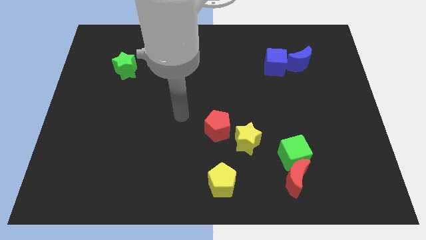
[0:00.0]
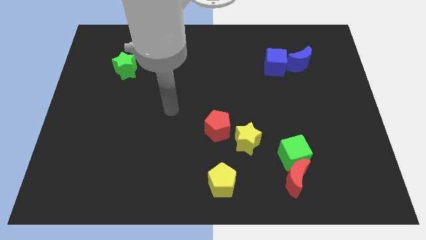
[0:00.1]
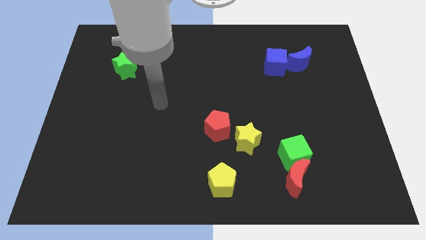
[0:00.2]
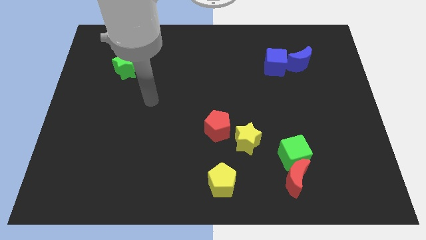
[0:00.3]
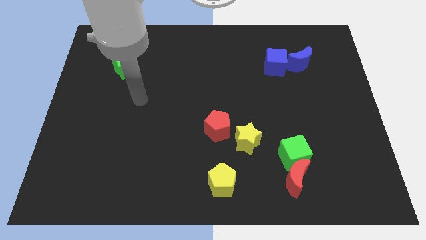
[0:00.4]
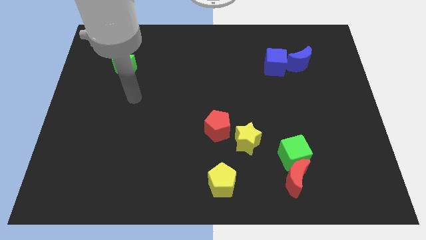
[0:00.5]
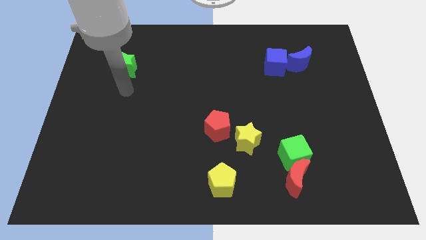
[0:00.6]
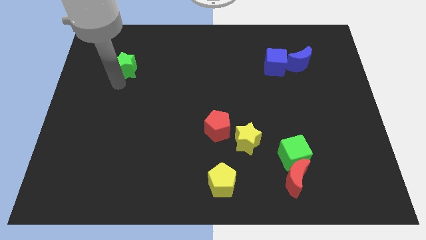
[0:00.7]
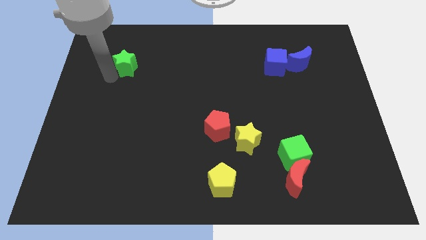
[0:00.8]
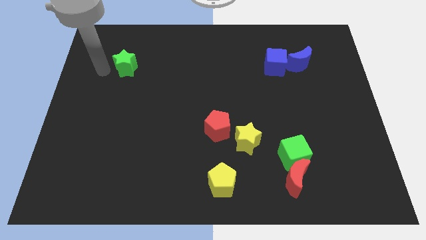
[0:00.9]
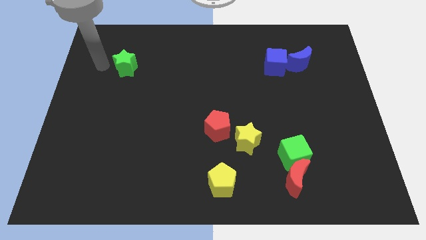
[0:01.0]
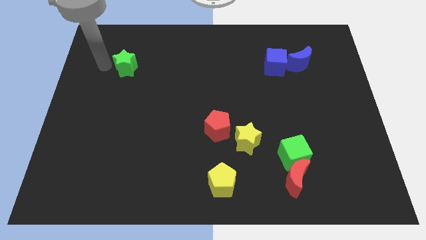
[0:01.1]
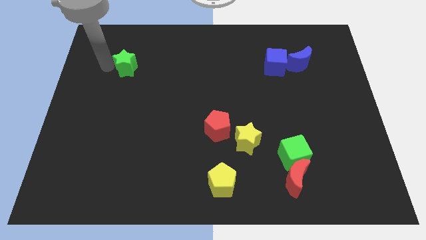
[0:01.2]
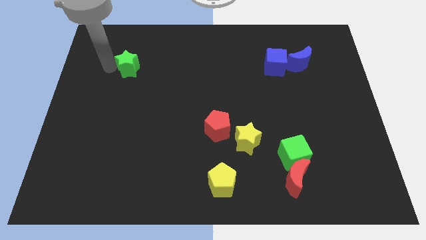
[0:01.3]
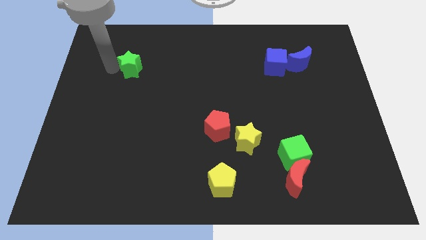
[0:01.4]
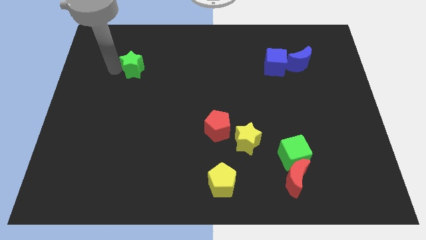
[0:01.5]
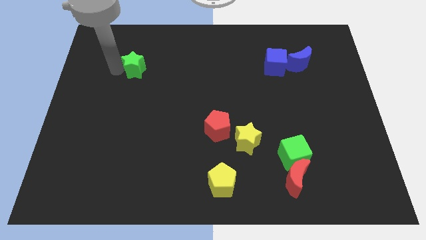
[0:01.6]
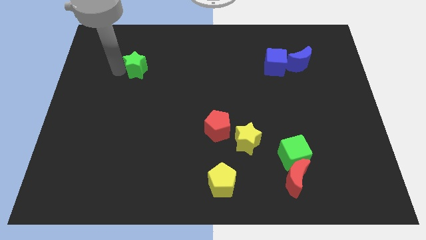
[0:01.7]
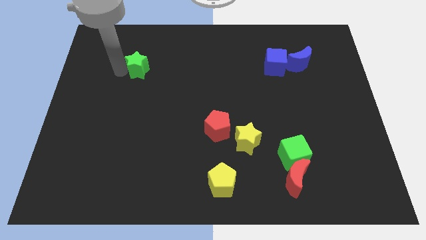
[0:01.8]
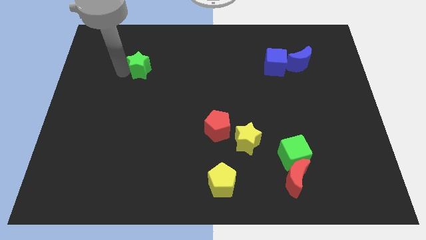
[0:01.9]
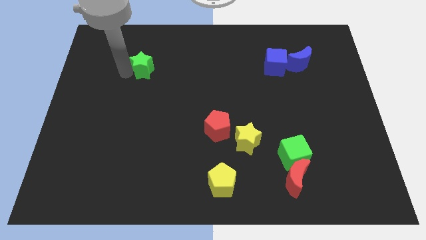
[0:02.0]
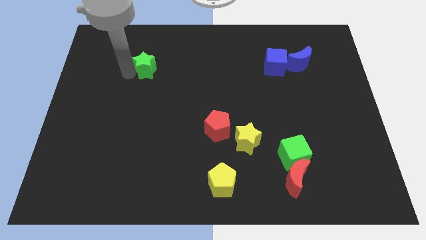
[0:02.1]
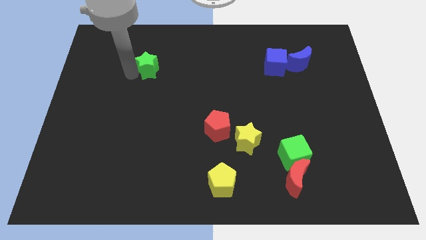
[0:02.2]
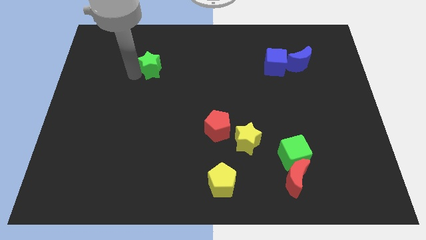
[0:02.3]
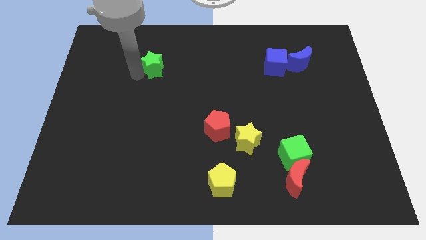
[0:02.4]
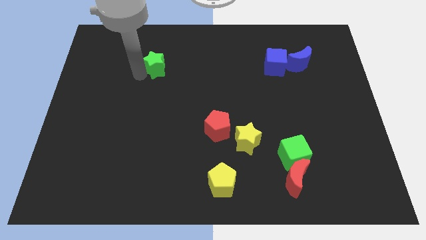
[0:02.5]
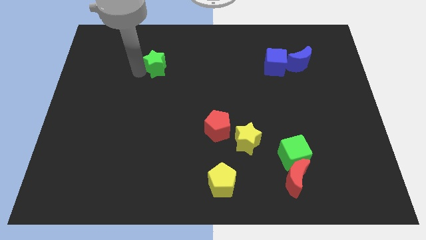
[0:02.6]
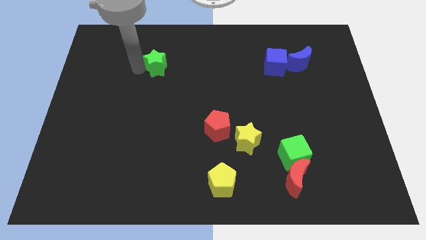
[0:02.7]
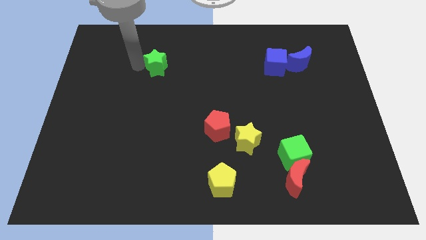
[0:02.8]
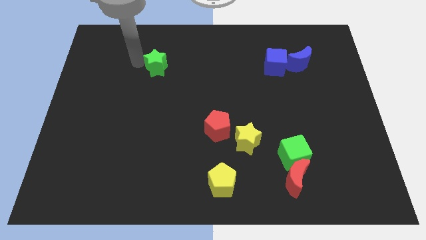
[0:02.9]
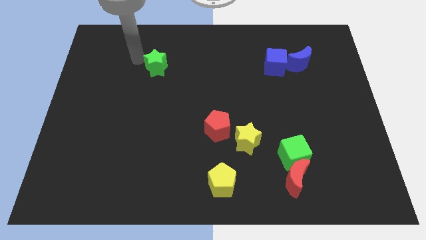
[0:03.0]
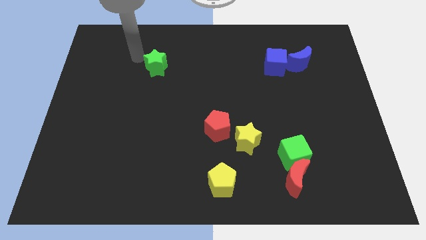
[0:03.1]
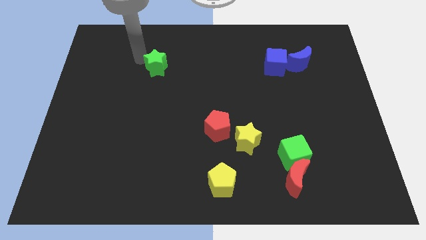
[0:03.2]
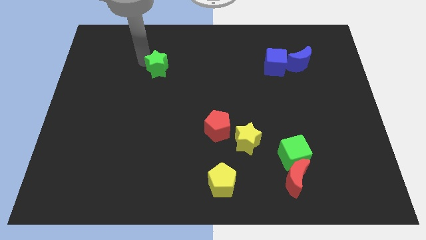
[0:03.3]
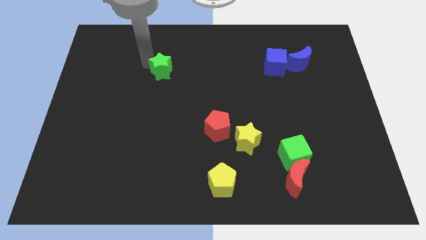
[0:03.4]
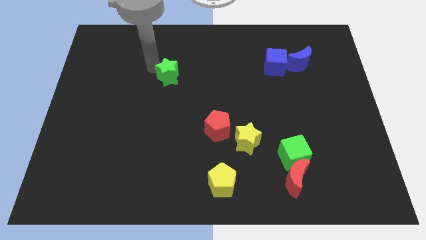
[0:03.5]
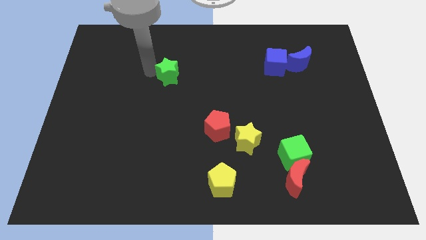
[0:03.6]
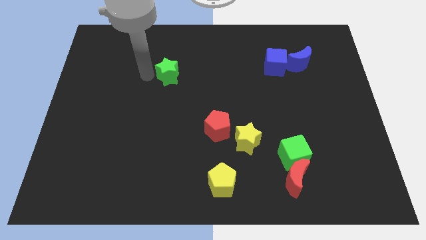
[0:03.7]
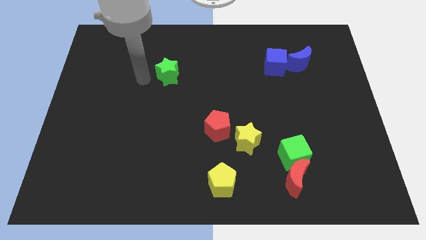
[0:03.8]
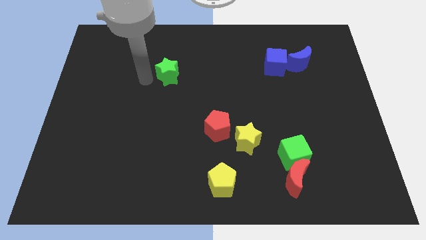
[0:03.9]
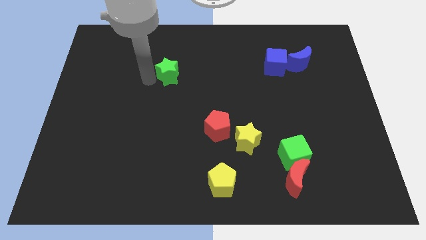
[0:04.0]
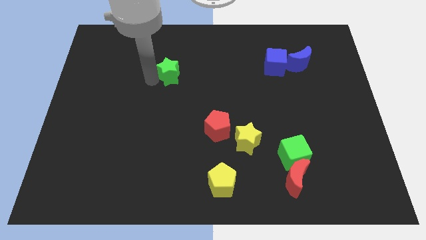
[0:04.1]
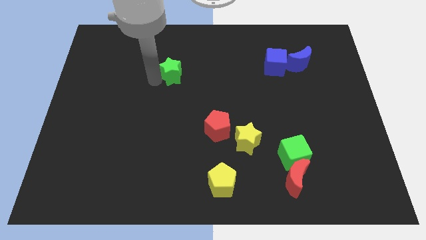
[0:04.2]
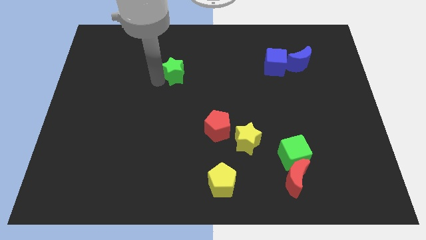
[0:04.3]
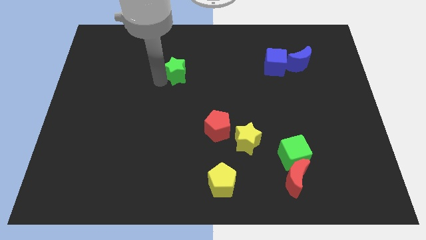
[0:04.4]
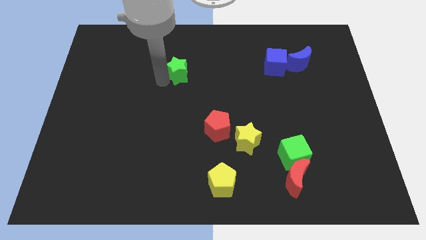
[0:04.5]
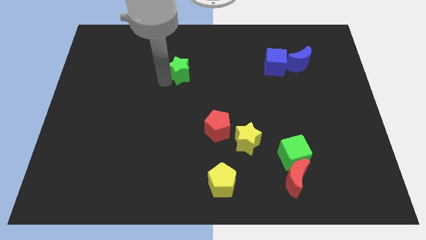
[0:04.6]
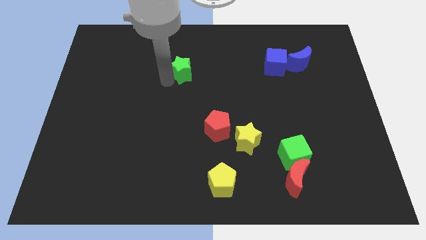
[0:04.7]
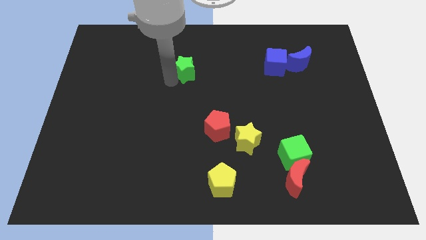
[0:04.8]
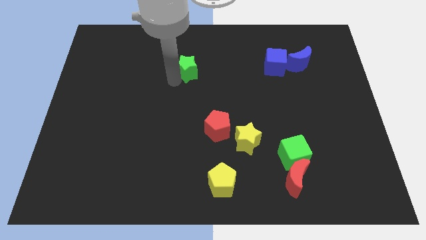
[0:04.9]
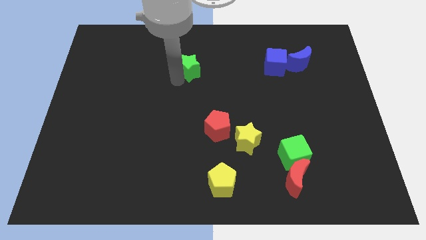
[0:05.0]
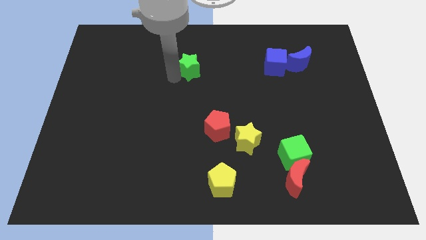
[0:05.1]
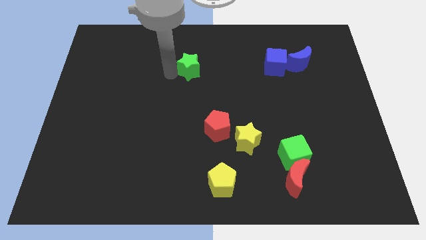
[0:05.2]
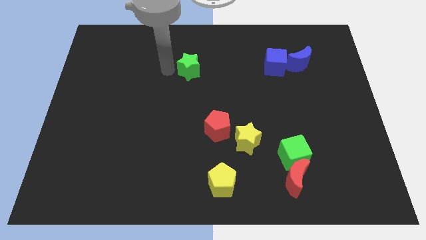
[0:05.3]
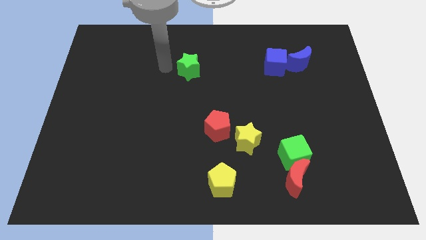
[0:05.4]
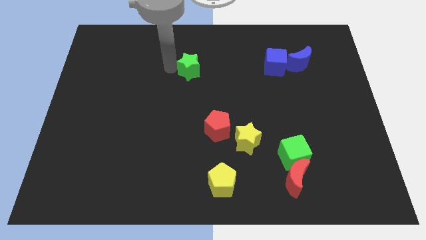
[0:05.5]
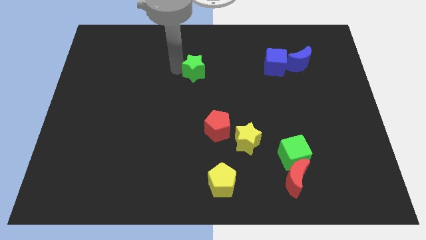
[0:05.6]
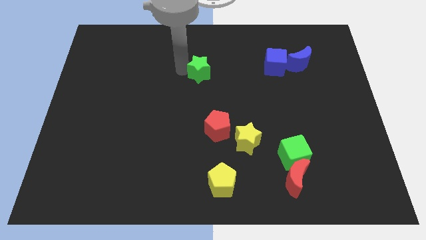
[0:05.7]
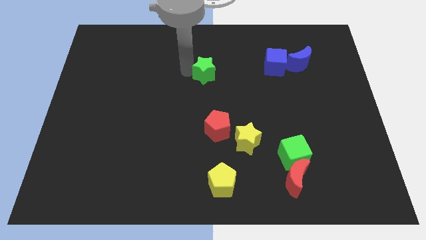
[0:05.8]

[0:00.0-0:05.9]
slide the green star to the right

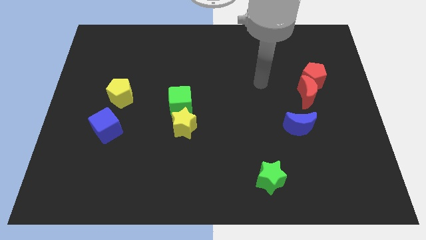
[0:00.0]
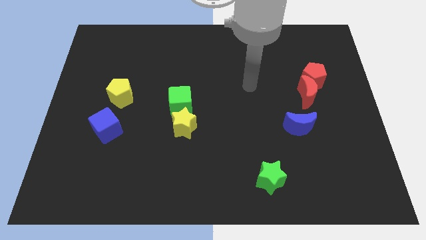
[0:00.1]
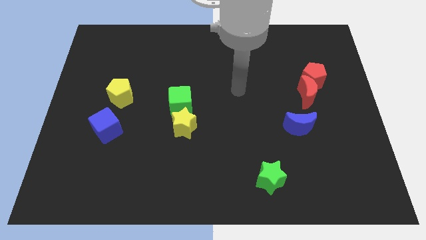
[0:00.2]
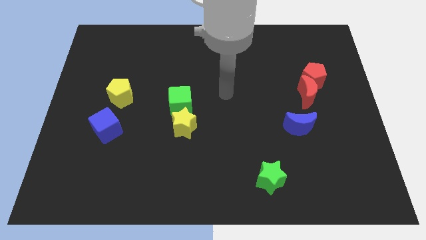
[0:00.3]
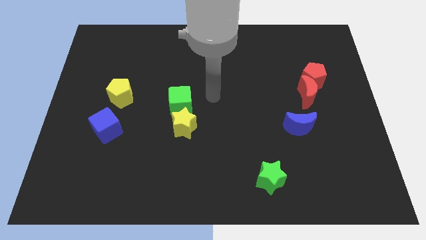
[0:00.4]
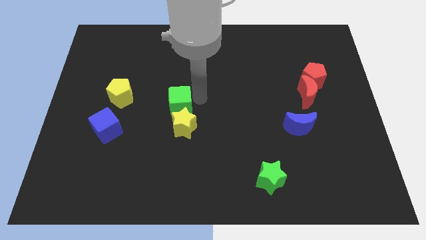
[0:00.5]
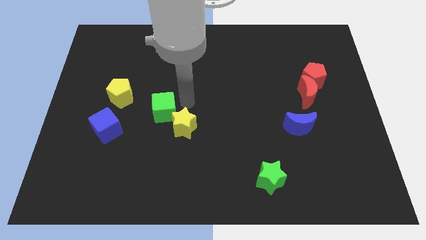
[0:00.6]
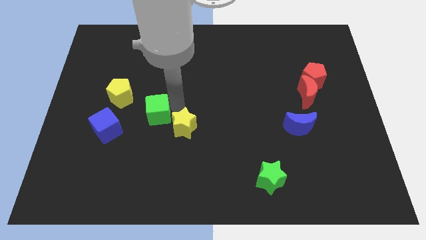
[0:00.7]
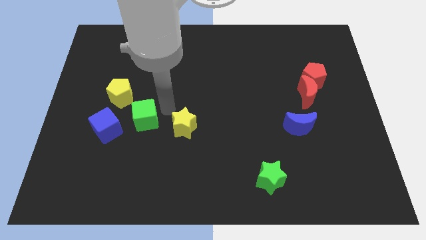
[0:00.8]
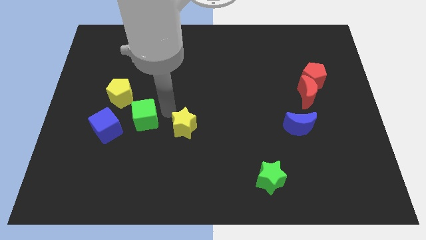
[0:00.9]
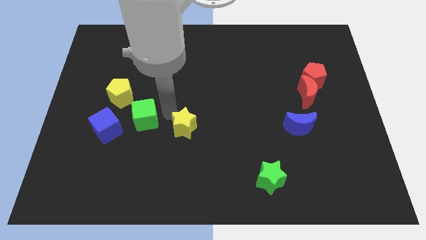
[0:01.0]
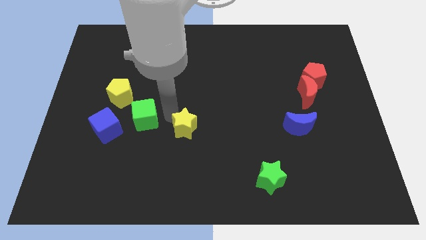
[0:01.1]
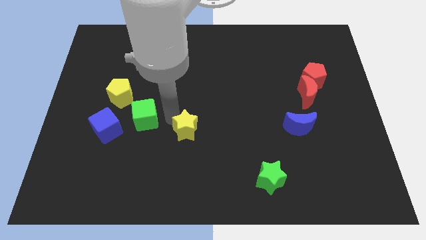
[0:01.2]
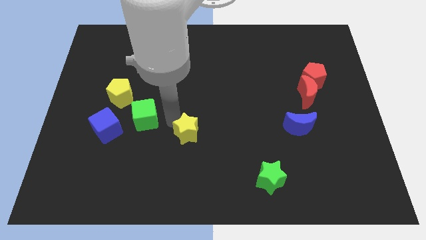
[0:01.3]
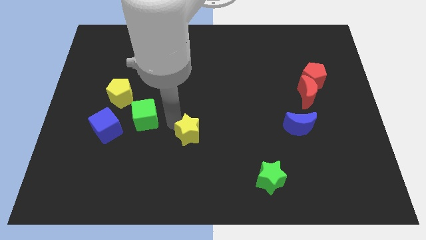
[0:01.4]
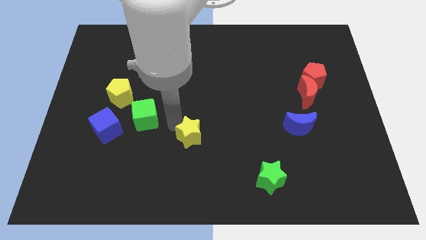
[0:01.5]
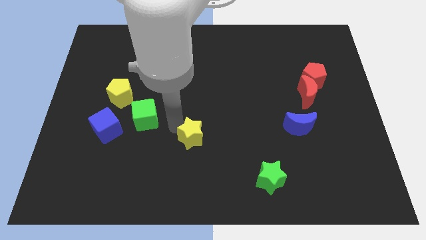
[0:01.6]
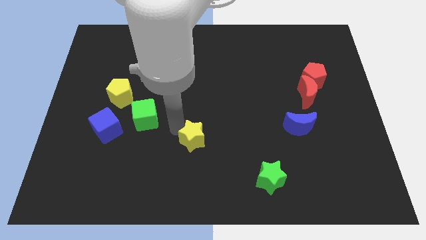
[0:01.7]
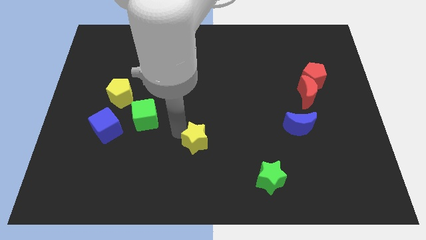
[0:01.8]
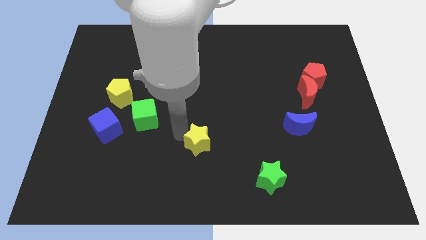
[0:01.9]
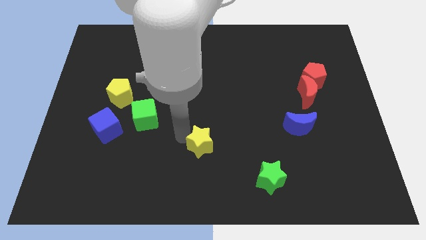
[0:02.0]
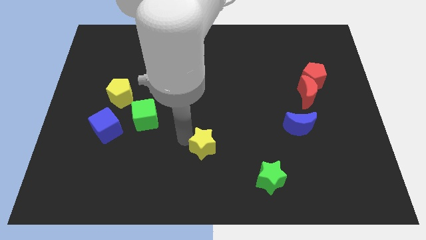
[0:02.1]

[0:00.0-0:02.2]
push the yellow star diagonally down and to the right a bit
